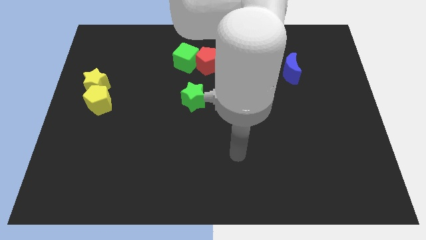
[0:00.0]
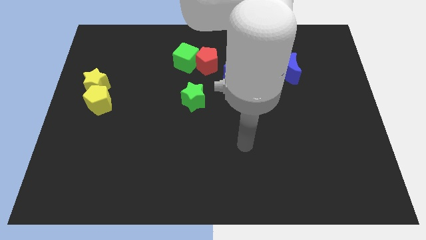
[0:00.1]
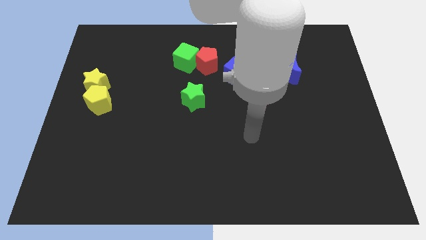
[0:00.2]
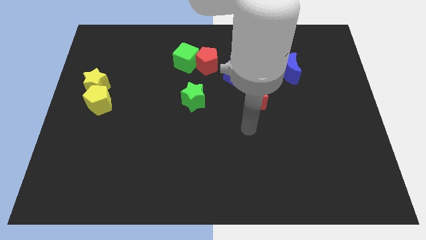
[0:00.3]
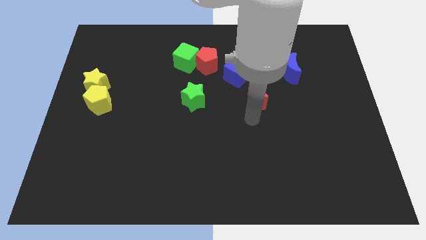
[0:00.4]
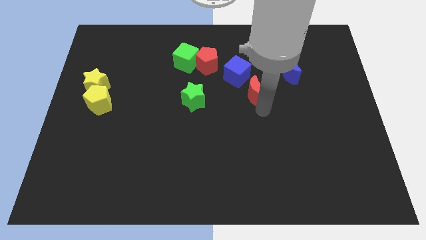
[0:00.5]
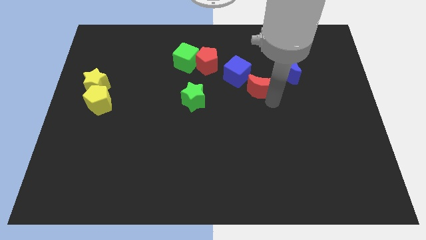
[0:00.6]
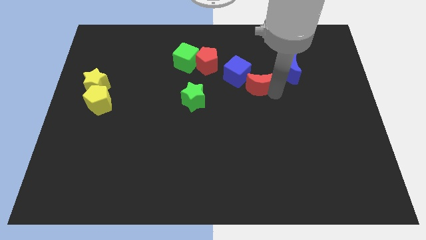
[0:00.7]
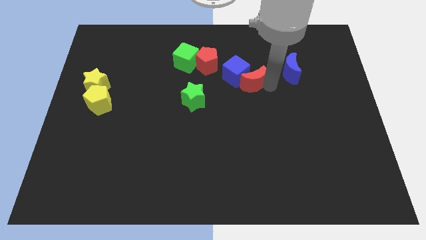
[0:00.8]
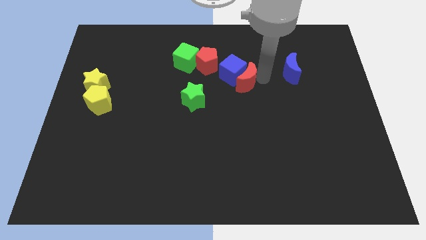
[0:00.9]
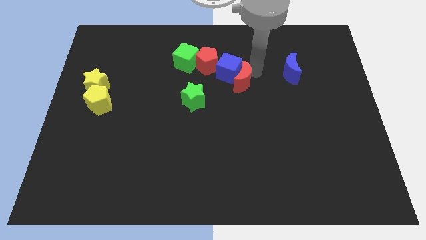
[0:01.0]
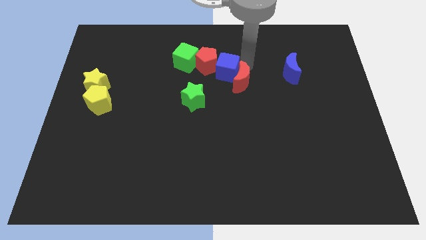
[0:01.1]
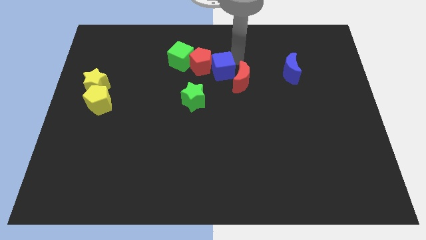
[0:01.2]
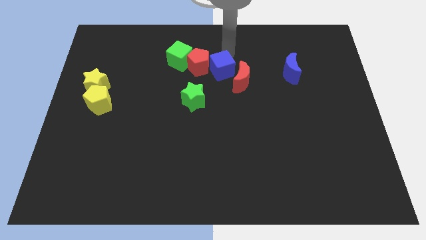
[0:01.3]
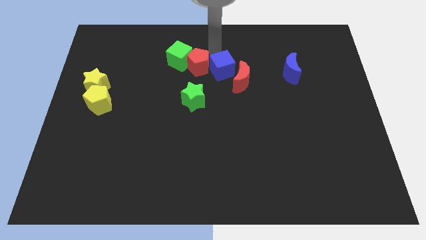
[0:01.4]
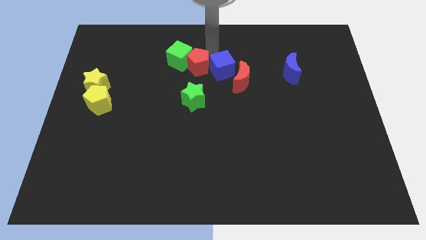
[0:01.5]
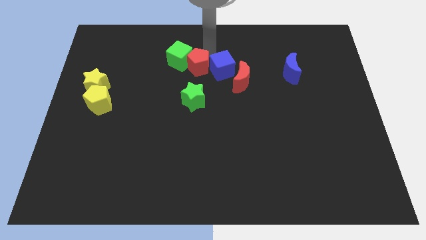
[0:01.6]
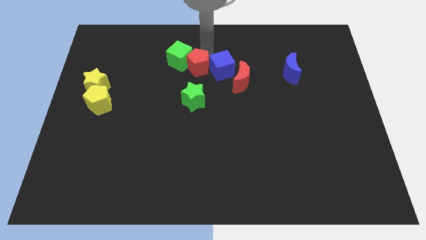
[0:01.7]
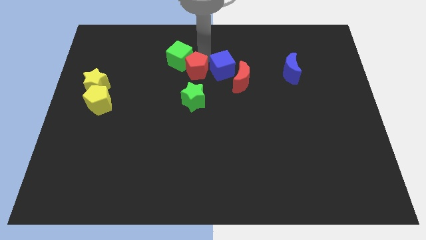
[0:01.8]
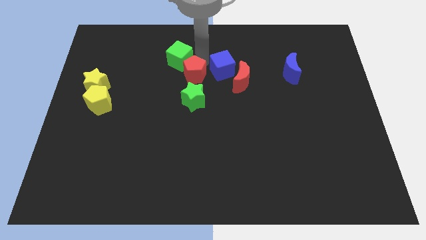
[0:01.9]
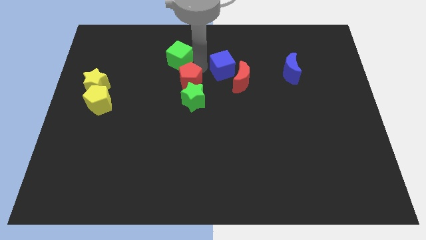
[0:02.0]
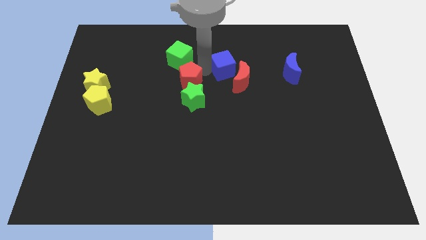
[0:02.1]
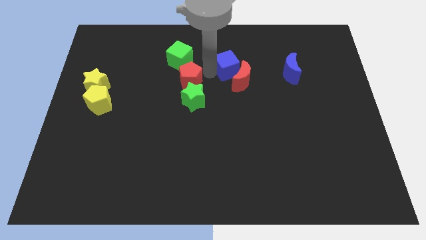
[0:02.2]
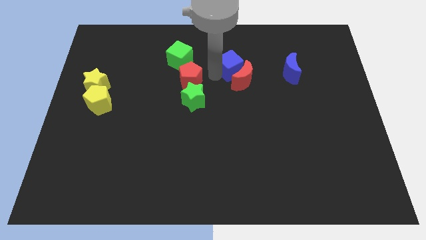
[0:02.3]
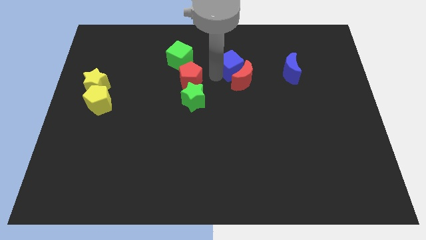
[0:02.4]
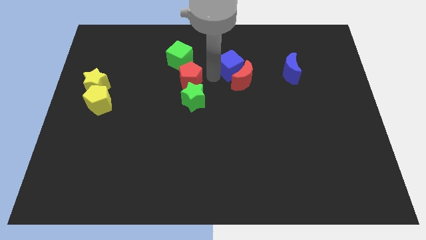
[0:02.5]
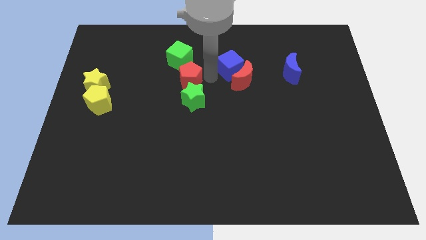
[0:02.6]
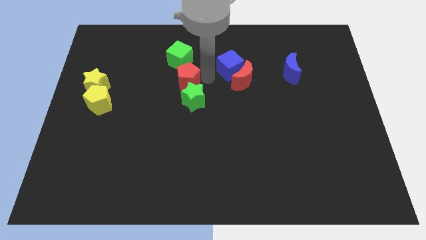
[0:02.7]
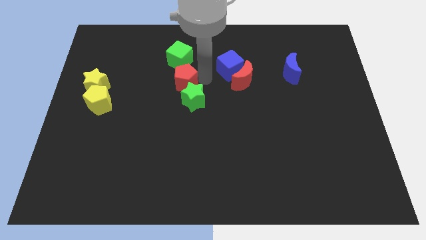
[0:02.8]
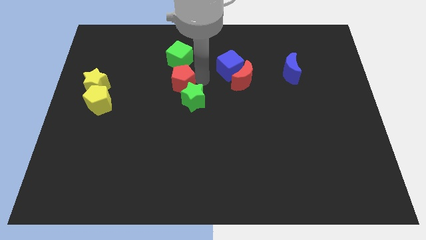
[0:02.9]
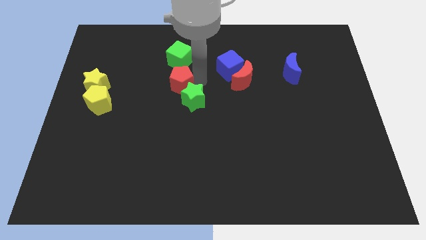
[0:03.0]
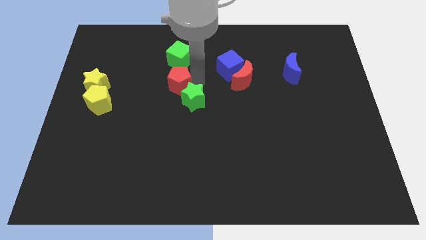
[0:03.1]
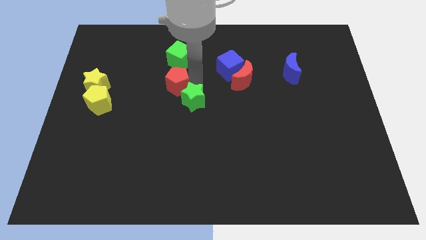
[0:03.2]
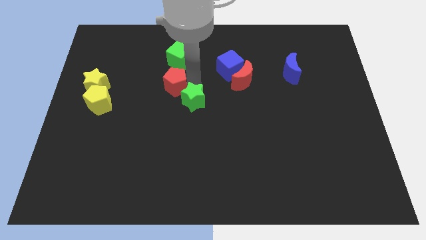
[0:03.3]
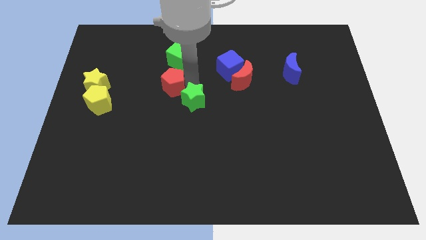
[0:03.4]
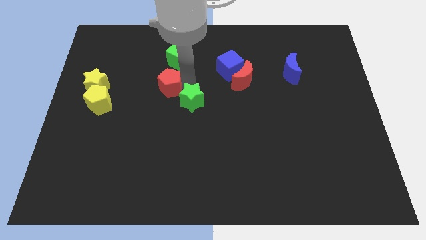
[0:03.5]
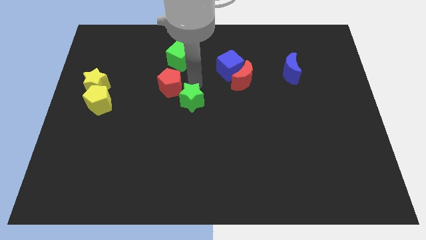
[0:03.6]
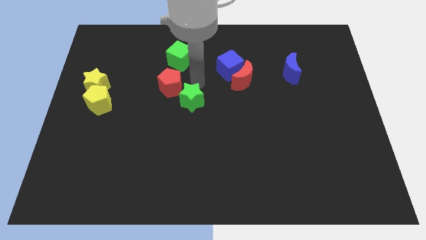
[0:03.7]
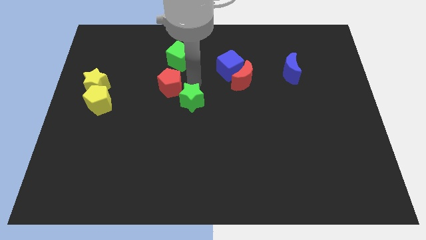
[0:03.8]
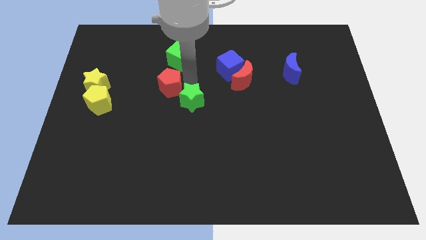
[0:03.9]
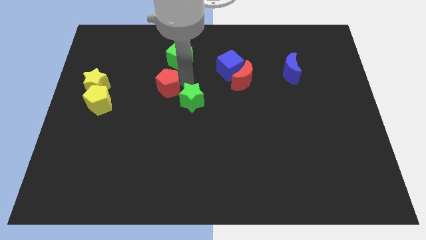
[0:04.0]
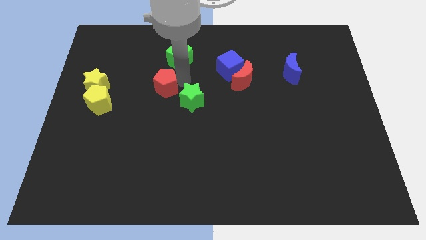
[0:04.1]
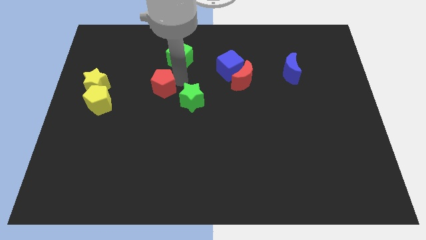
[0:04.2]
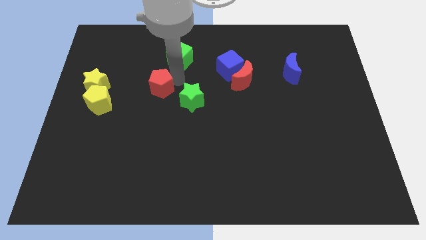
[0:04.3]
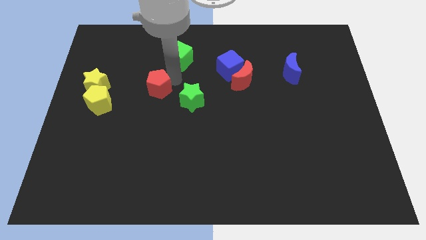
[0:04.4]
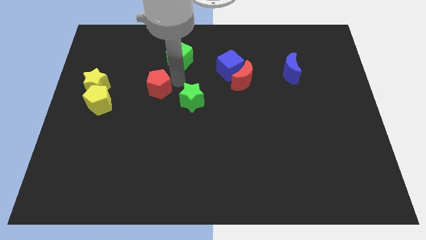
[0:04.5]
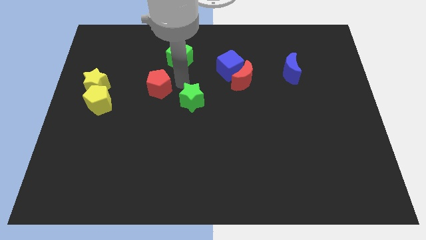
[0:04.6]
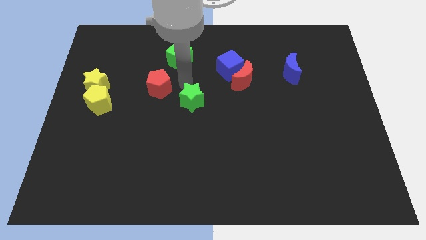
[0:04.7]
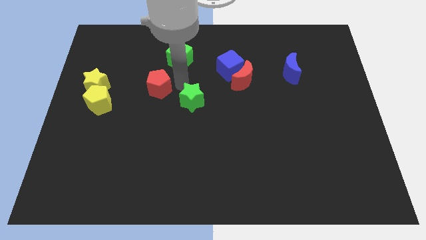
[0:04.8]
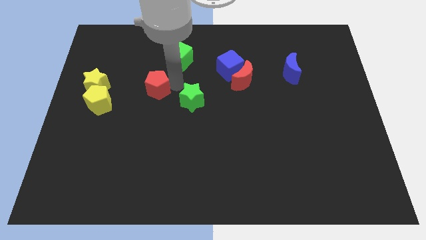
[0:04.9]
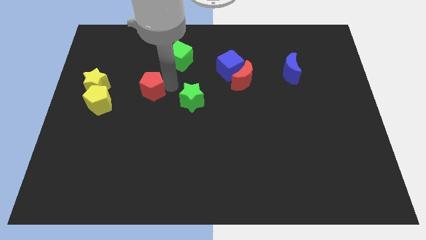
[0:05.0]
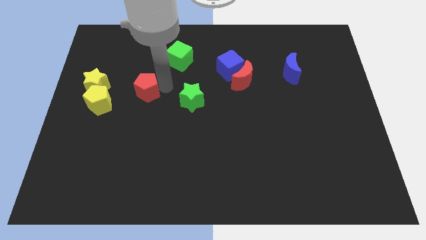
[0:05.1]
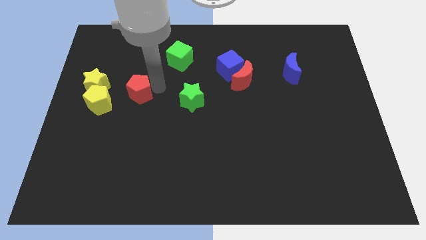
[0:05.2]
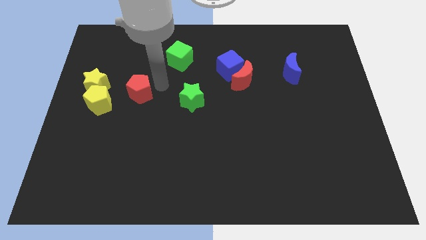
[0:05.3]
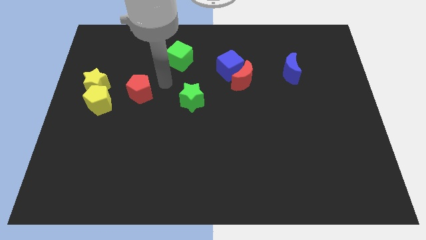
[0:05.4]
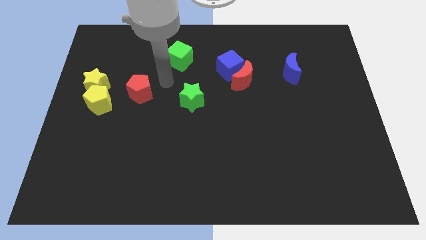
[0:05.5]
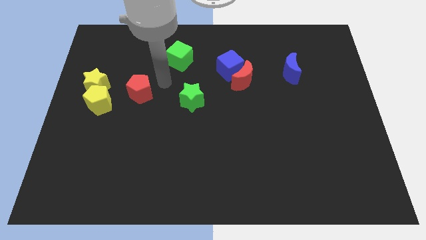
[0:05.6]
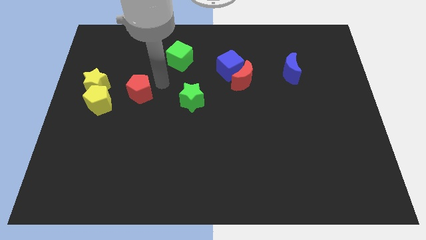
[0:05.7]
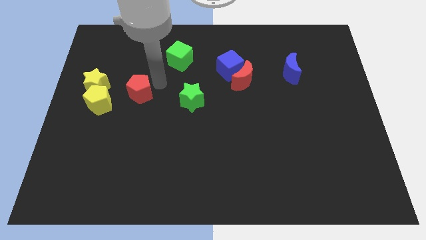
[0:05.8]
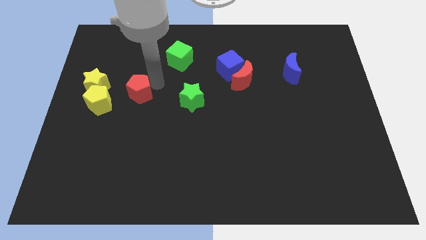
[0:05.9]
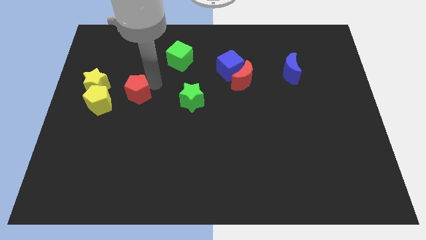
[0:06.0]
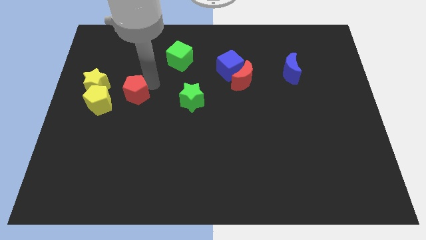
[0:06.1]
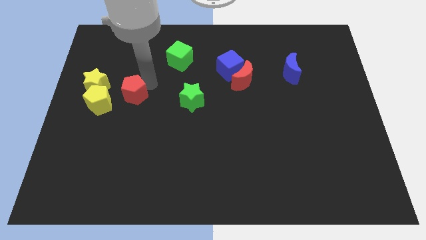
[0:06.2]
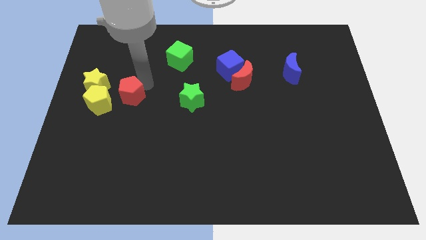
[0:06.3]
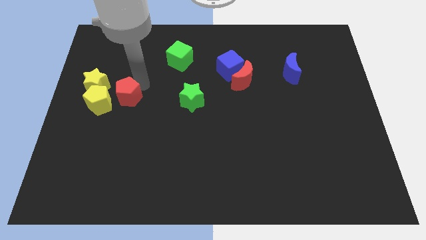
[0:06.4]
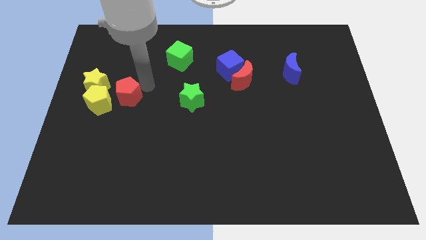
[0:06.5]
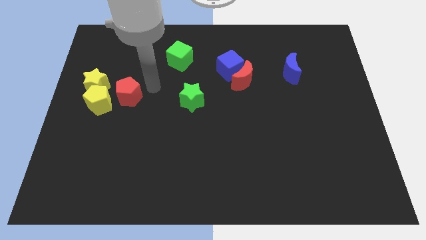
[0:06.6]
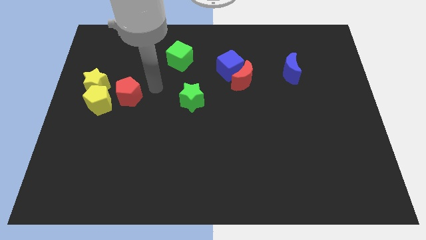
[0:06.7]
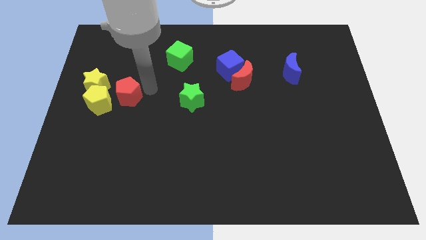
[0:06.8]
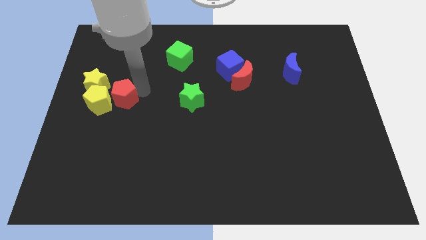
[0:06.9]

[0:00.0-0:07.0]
push the red pentagon to the yellow pentagon
